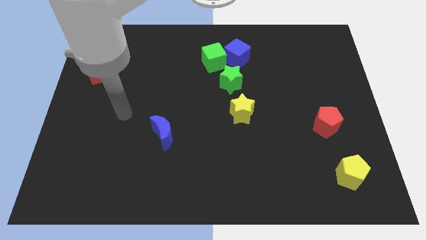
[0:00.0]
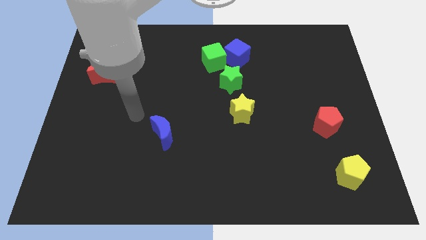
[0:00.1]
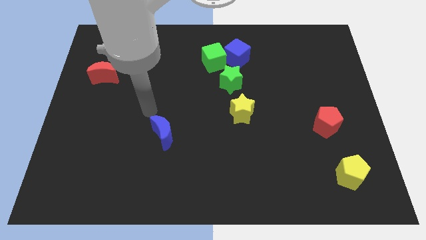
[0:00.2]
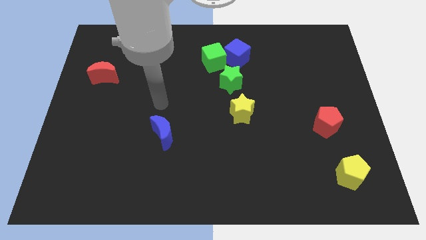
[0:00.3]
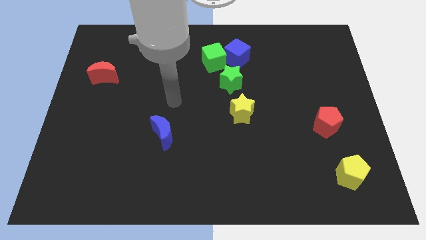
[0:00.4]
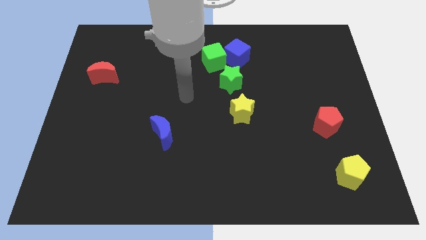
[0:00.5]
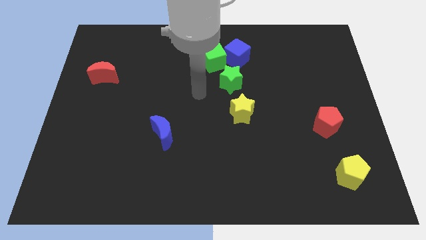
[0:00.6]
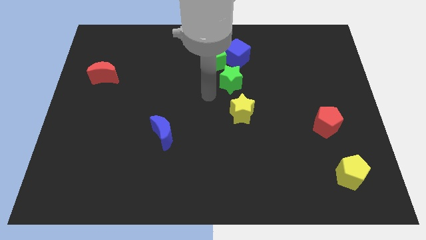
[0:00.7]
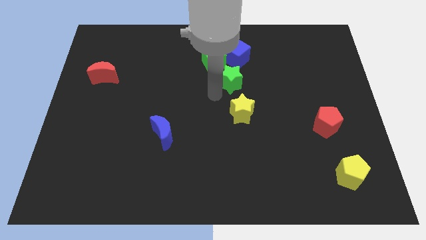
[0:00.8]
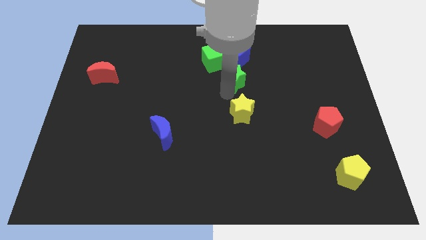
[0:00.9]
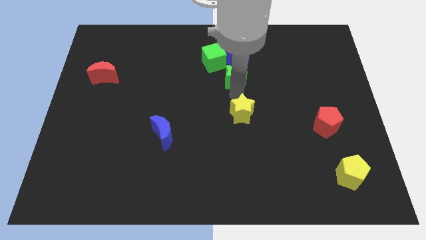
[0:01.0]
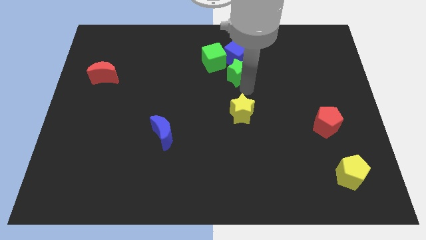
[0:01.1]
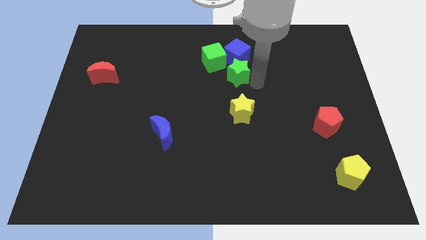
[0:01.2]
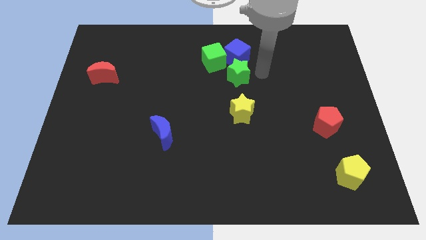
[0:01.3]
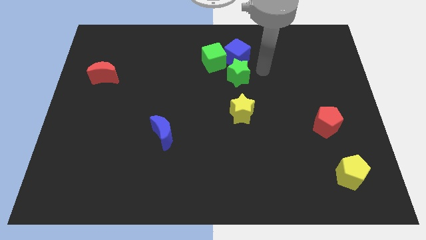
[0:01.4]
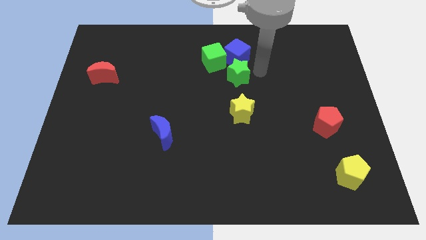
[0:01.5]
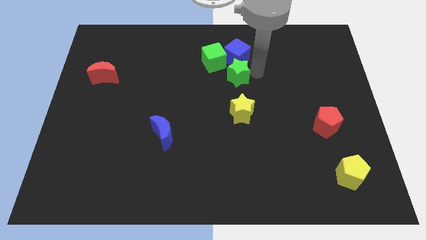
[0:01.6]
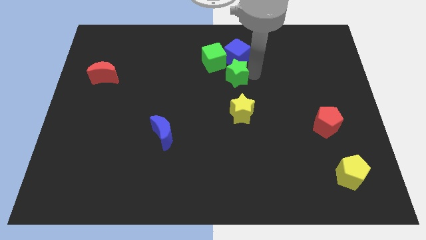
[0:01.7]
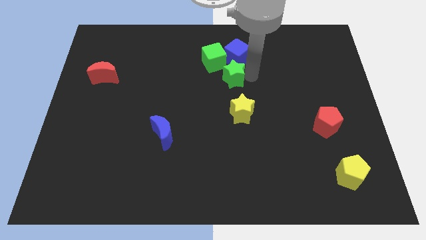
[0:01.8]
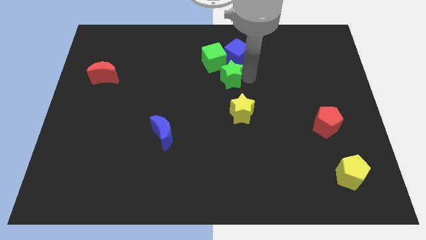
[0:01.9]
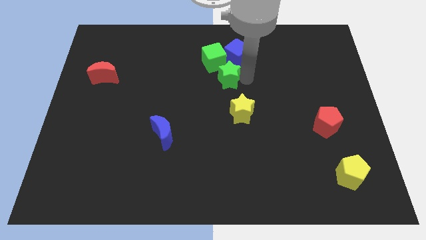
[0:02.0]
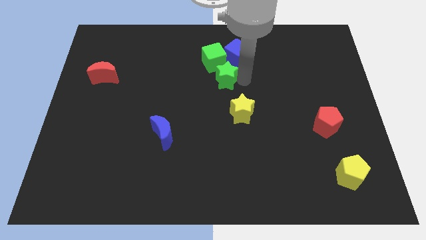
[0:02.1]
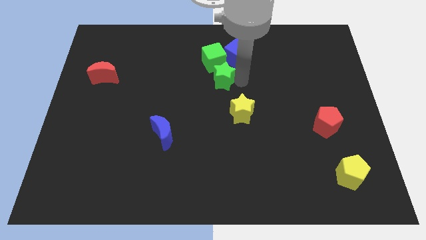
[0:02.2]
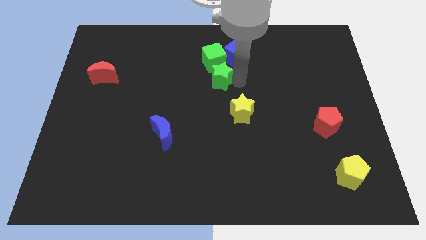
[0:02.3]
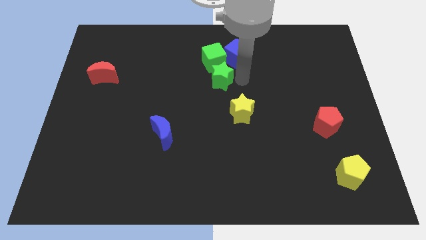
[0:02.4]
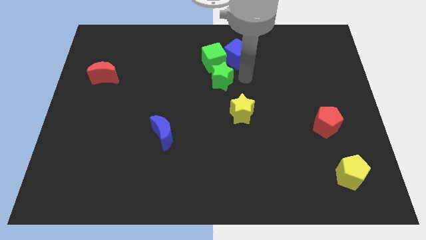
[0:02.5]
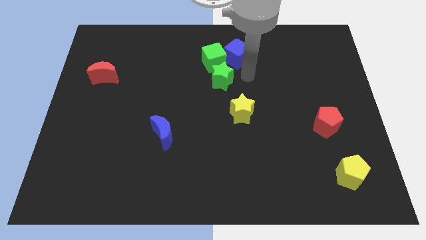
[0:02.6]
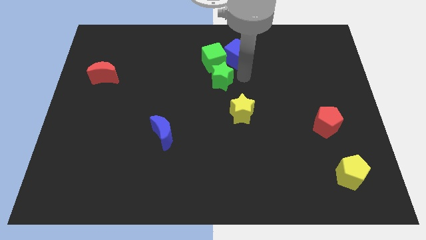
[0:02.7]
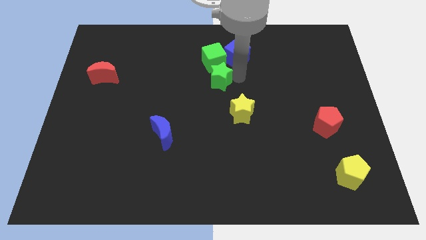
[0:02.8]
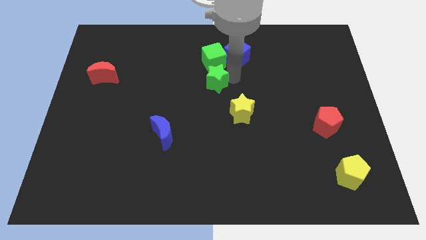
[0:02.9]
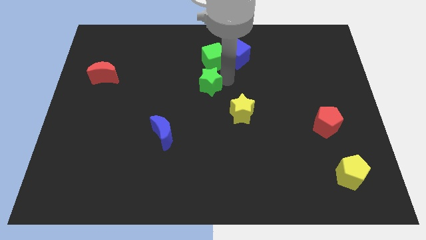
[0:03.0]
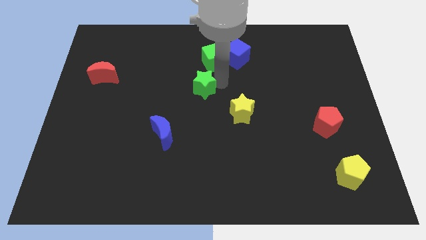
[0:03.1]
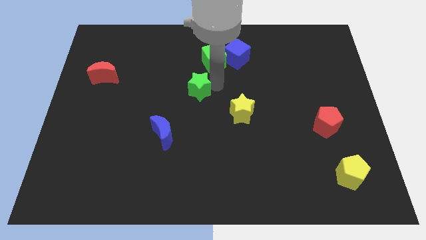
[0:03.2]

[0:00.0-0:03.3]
slide the green star somewhat to the left

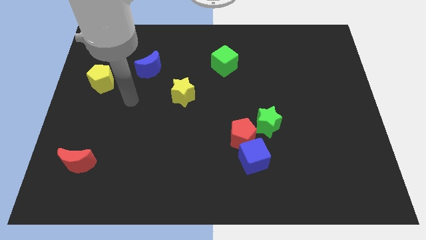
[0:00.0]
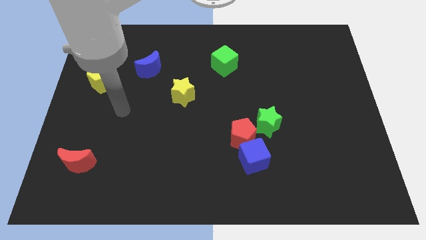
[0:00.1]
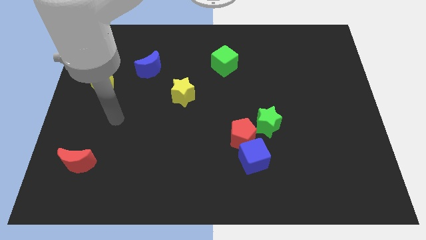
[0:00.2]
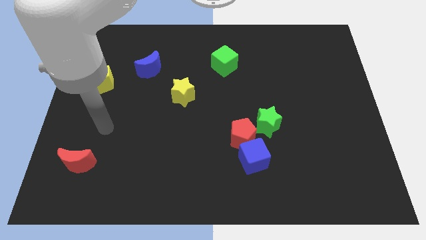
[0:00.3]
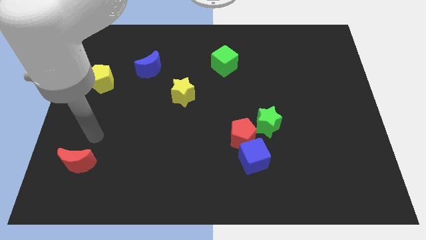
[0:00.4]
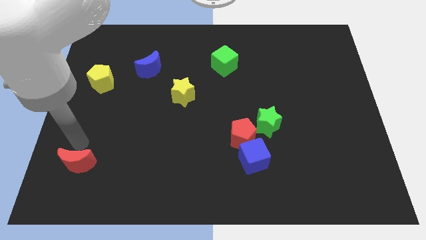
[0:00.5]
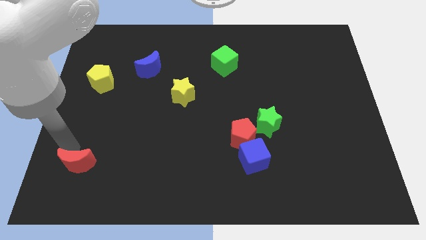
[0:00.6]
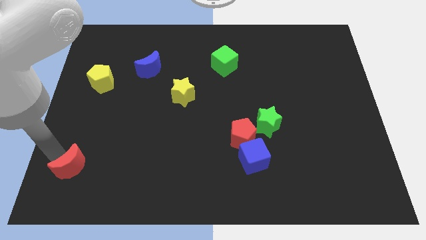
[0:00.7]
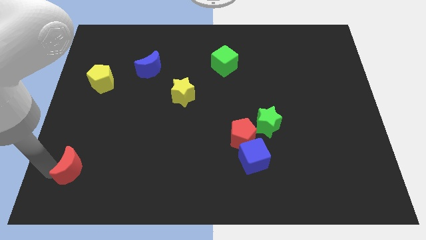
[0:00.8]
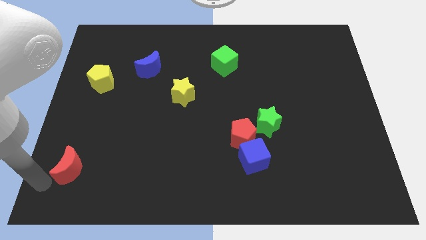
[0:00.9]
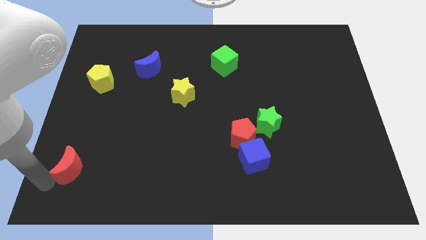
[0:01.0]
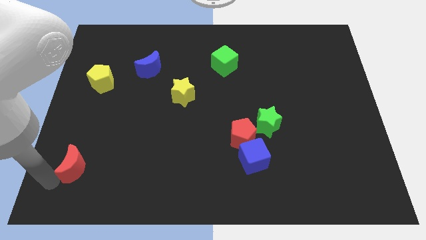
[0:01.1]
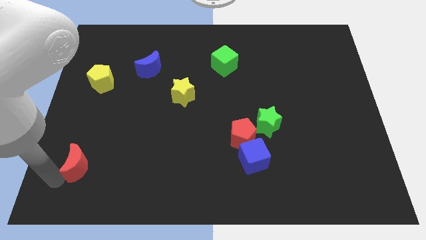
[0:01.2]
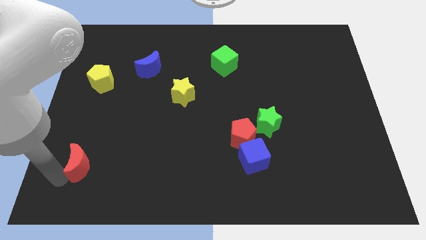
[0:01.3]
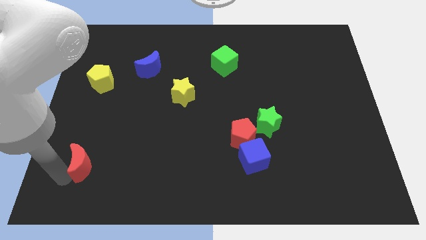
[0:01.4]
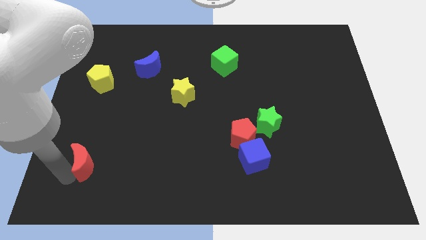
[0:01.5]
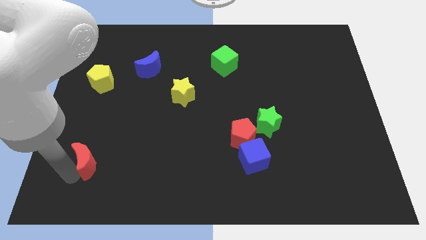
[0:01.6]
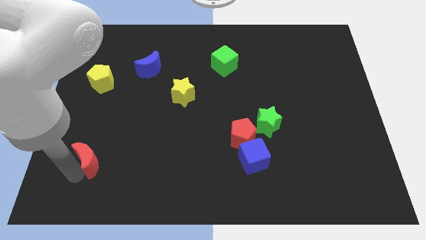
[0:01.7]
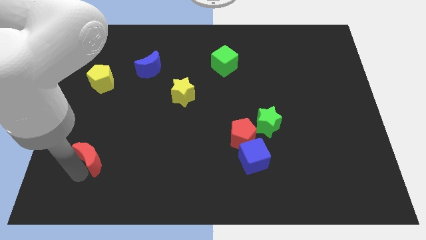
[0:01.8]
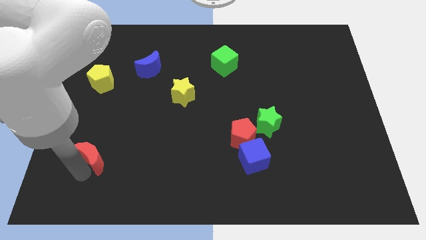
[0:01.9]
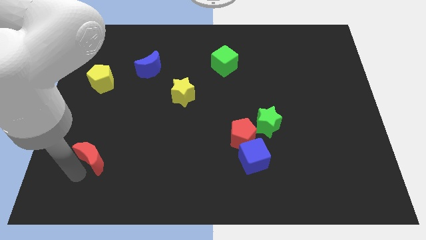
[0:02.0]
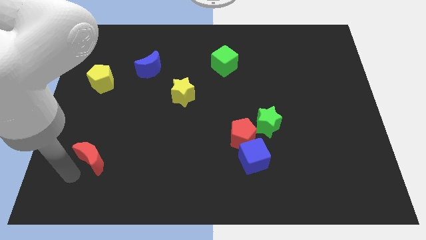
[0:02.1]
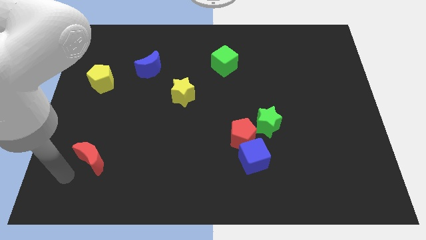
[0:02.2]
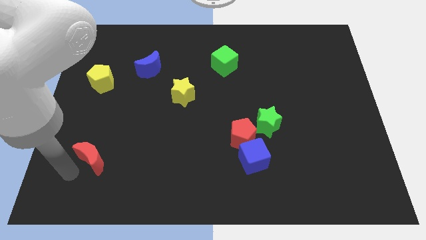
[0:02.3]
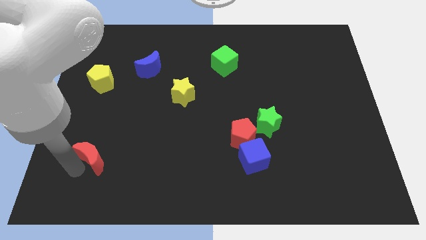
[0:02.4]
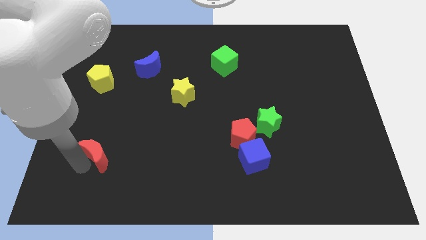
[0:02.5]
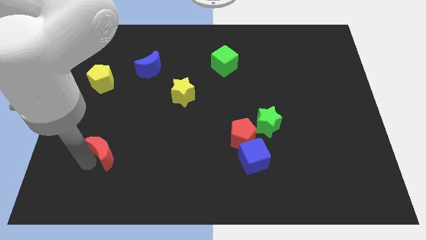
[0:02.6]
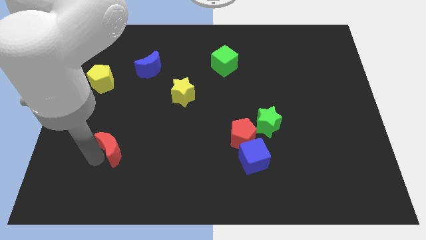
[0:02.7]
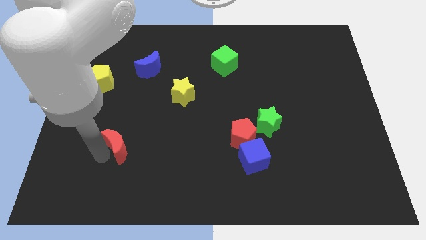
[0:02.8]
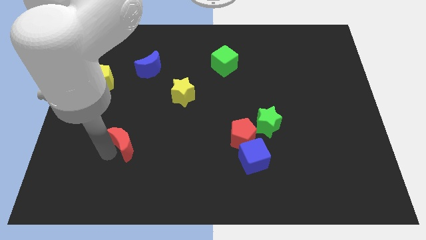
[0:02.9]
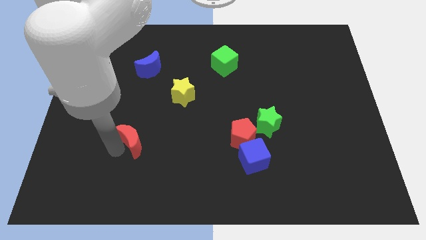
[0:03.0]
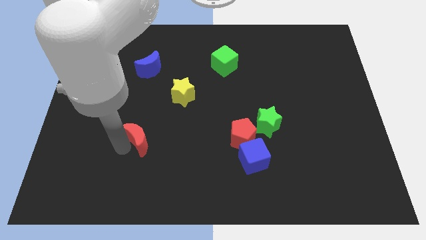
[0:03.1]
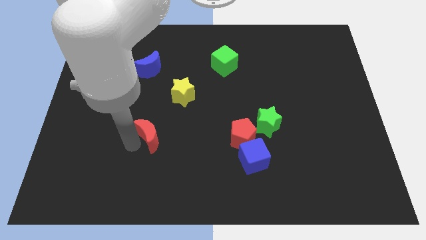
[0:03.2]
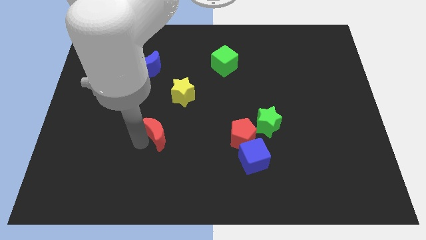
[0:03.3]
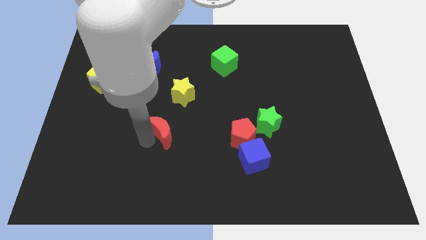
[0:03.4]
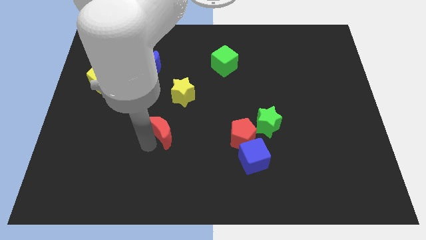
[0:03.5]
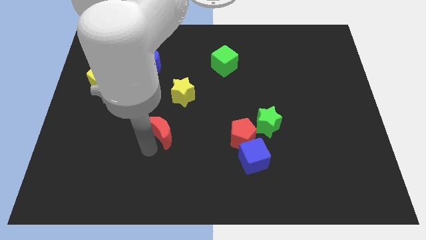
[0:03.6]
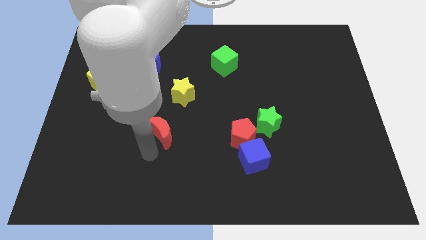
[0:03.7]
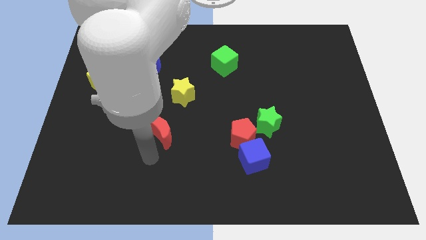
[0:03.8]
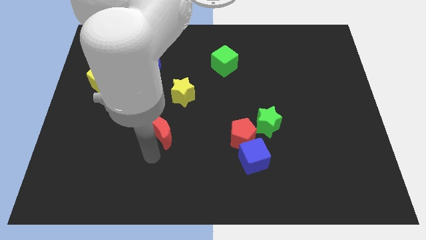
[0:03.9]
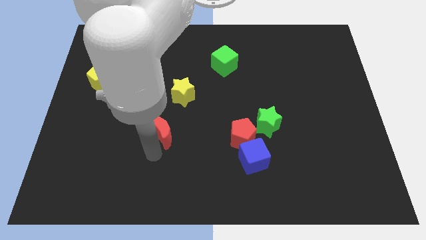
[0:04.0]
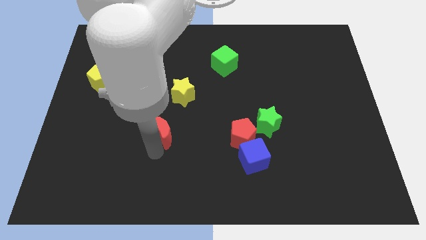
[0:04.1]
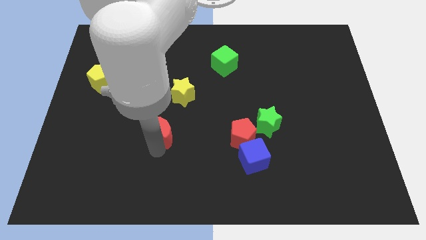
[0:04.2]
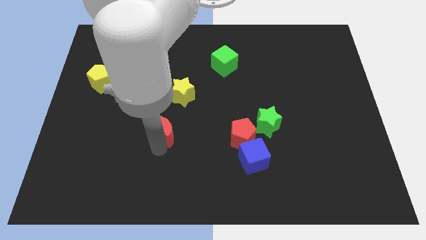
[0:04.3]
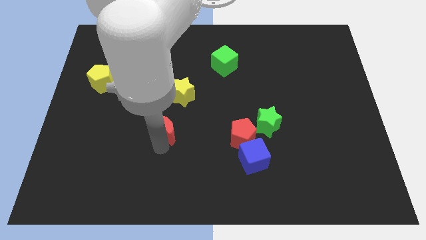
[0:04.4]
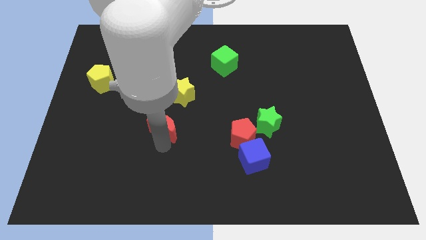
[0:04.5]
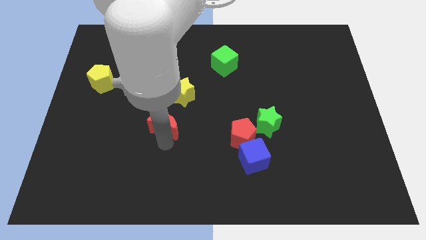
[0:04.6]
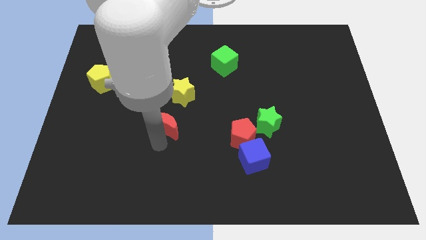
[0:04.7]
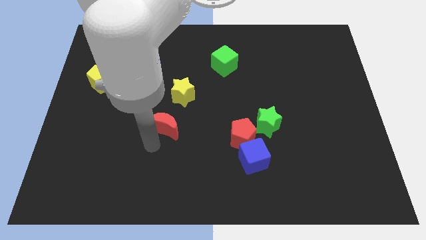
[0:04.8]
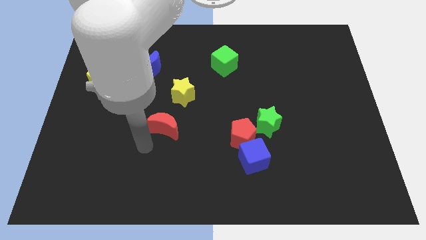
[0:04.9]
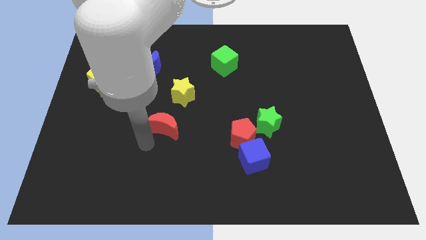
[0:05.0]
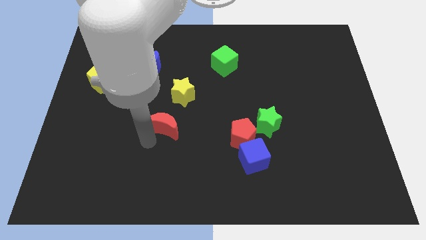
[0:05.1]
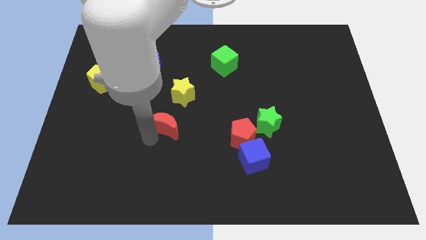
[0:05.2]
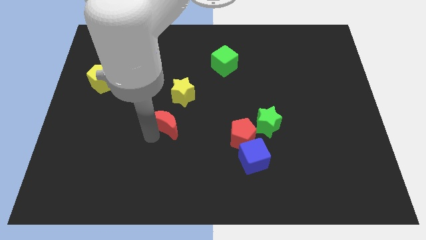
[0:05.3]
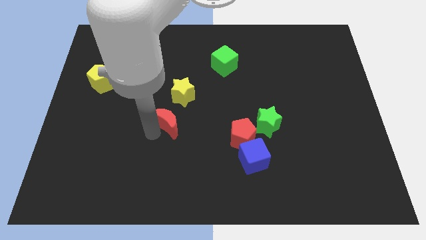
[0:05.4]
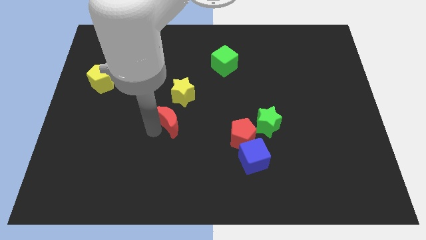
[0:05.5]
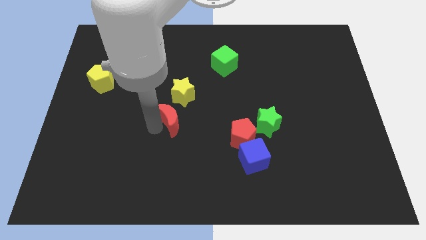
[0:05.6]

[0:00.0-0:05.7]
push the red moon upwards and to the right
